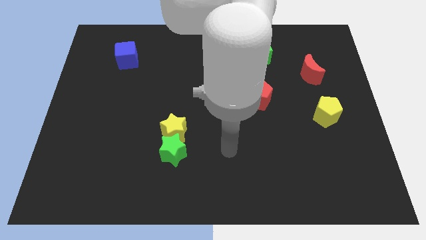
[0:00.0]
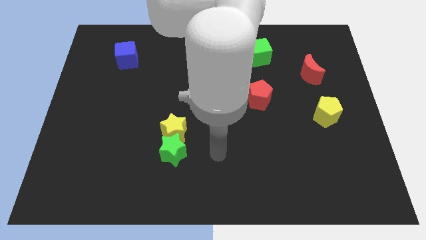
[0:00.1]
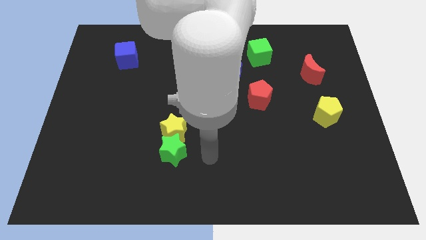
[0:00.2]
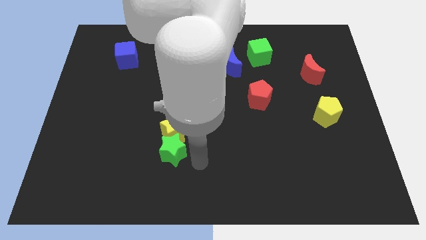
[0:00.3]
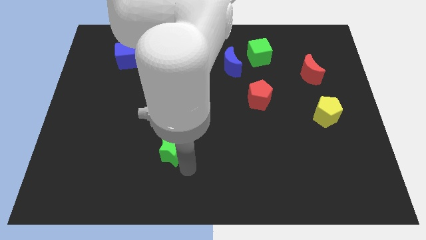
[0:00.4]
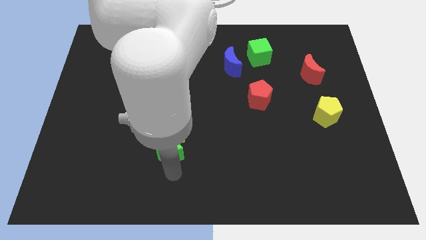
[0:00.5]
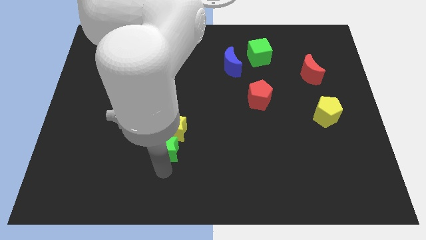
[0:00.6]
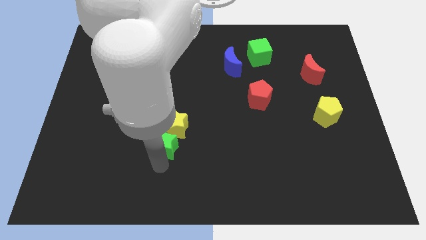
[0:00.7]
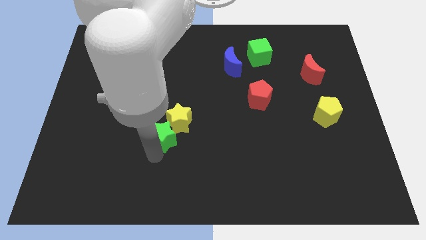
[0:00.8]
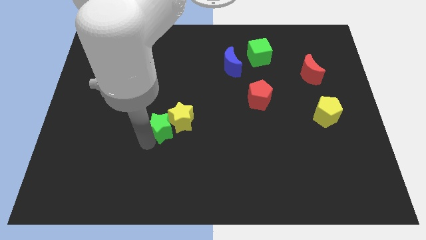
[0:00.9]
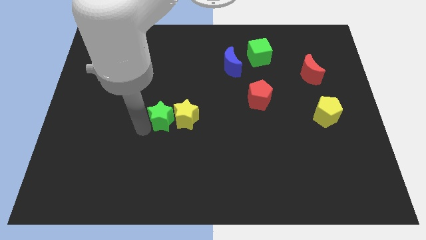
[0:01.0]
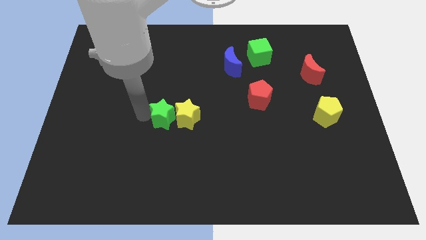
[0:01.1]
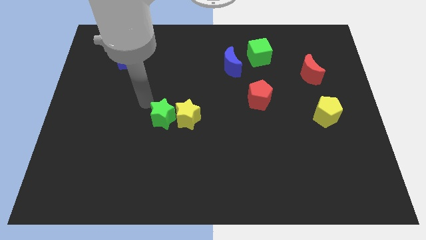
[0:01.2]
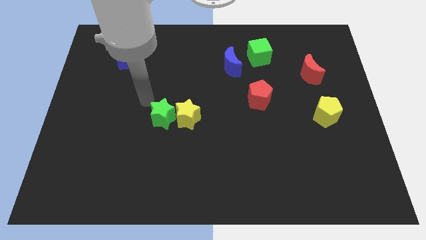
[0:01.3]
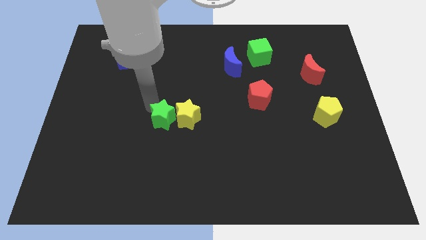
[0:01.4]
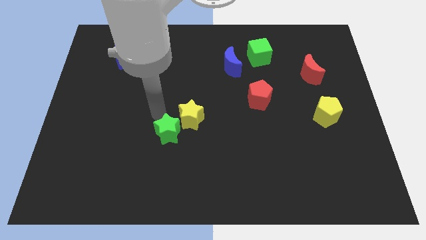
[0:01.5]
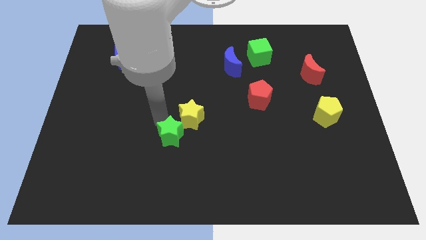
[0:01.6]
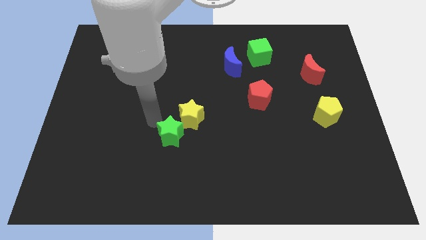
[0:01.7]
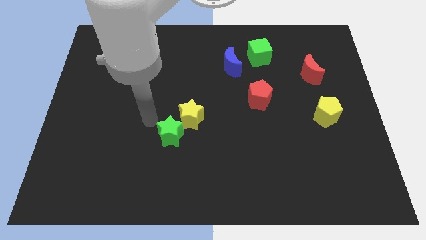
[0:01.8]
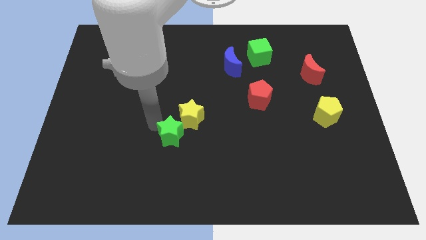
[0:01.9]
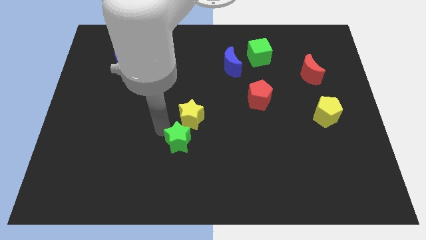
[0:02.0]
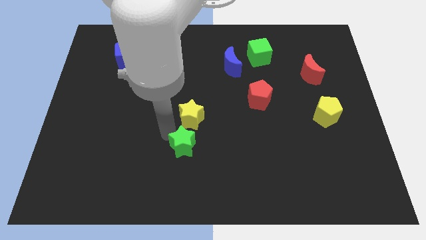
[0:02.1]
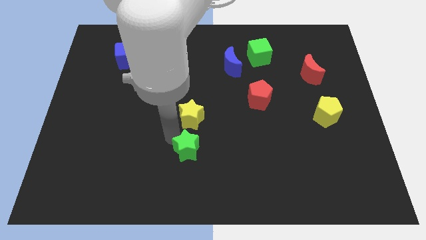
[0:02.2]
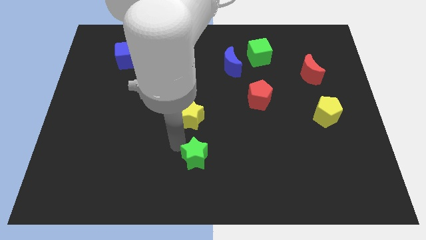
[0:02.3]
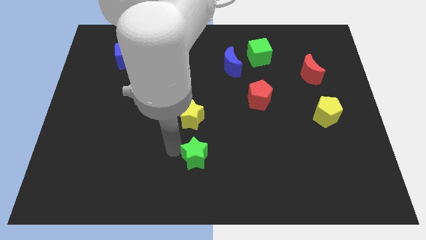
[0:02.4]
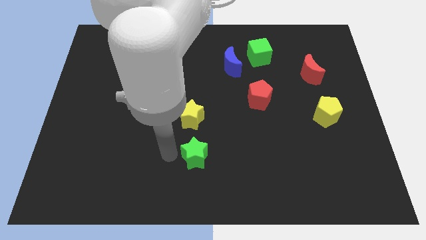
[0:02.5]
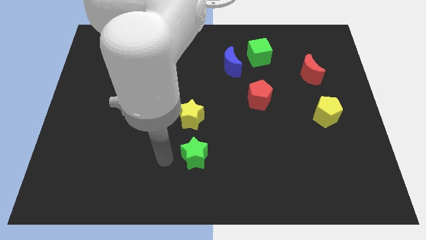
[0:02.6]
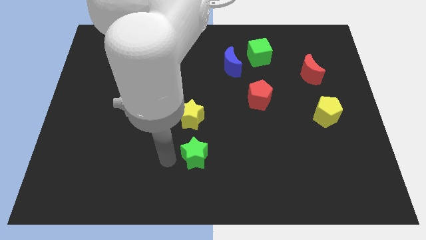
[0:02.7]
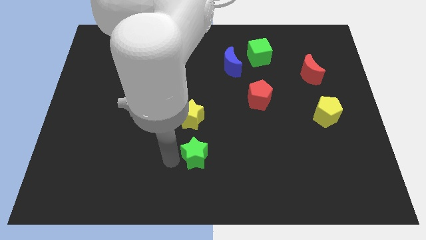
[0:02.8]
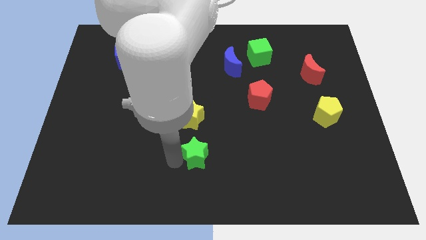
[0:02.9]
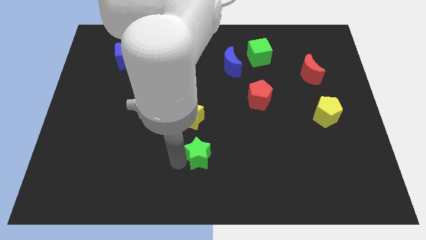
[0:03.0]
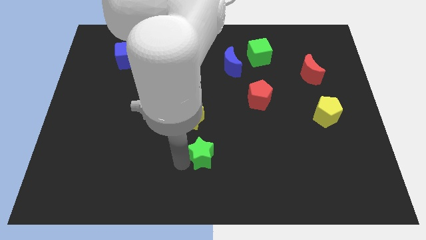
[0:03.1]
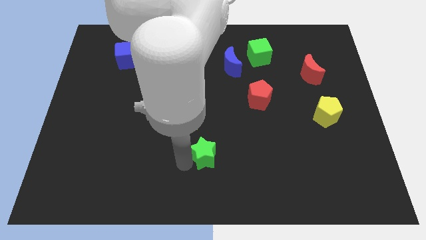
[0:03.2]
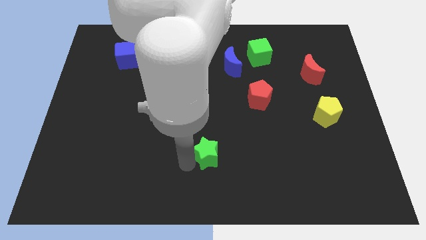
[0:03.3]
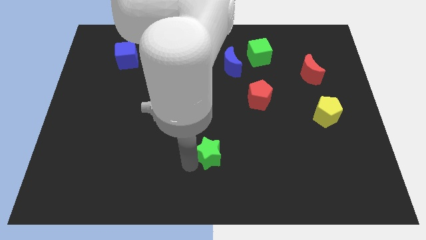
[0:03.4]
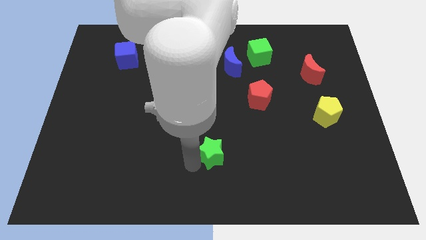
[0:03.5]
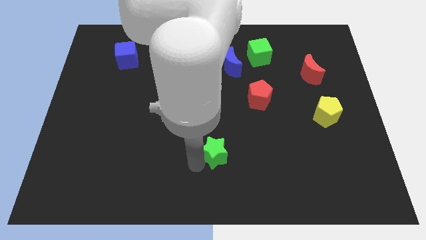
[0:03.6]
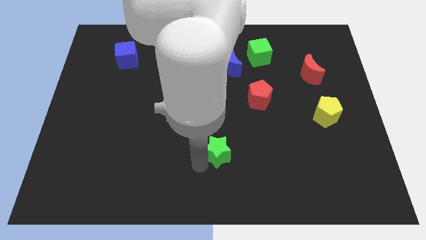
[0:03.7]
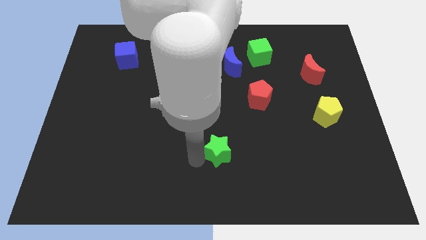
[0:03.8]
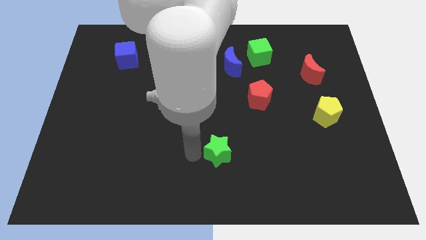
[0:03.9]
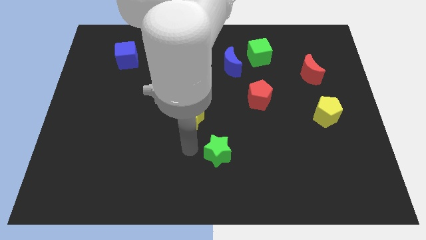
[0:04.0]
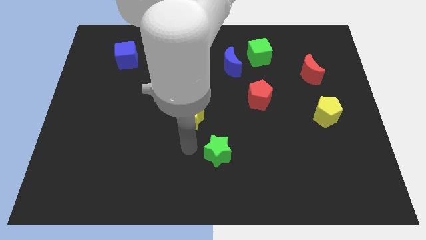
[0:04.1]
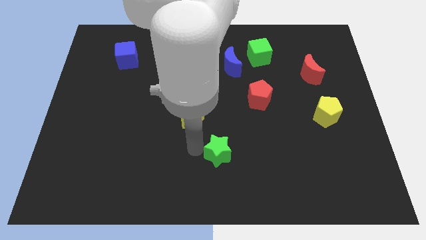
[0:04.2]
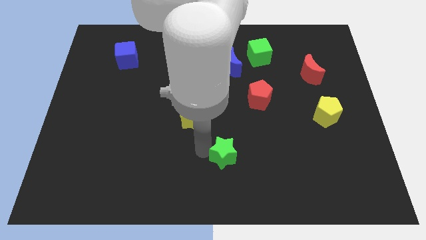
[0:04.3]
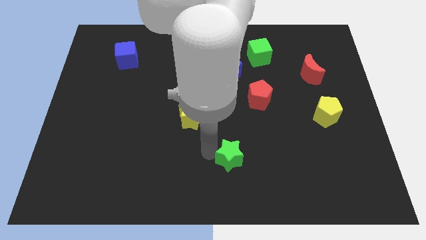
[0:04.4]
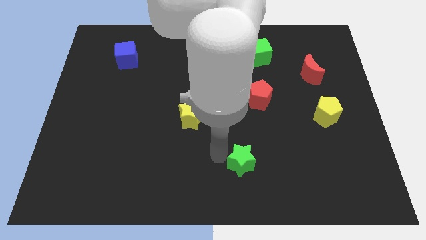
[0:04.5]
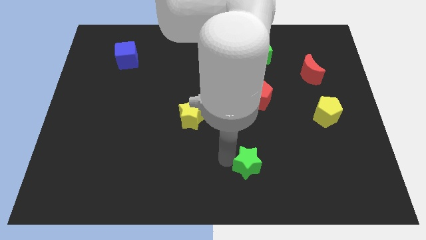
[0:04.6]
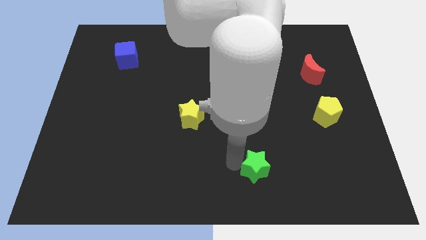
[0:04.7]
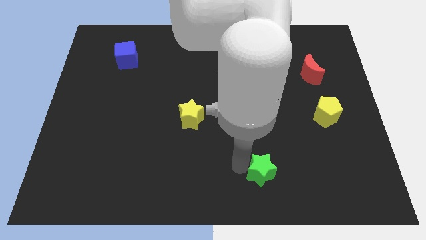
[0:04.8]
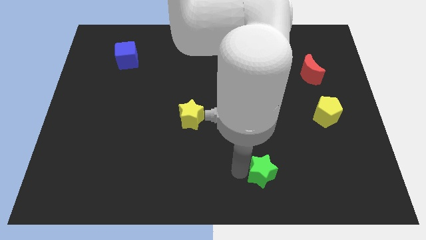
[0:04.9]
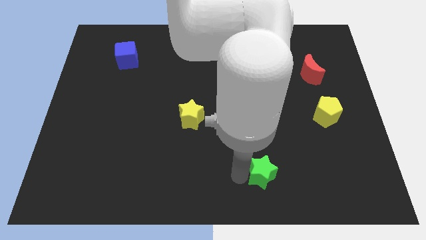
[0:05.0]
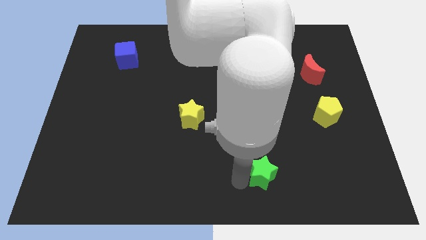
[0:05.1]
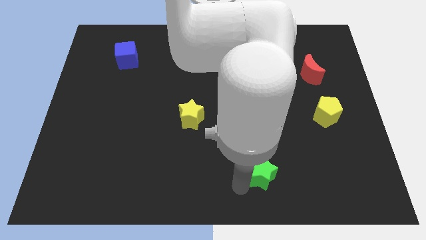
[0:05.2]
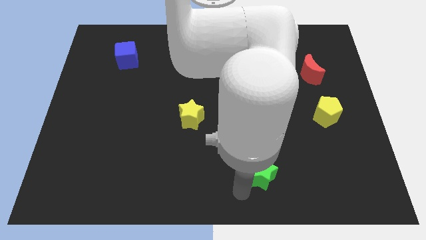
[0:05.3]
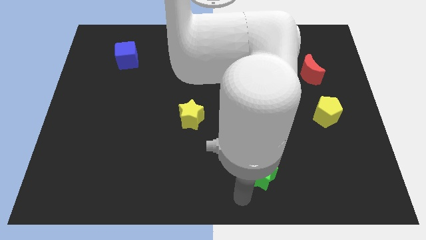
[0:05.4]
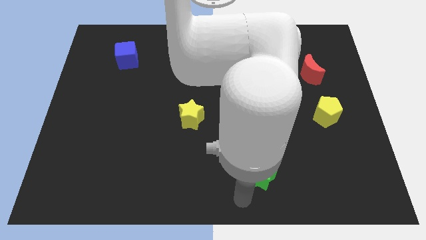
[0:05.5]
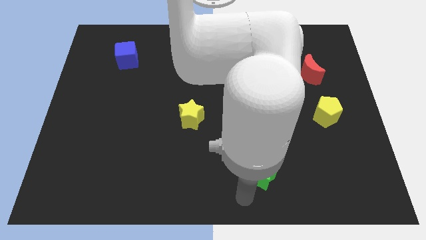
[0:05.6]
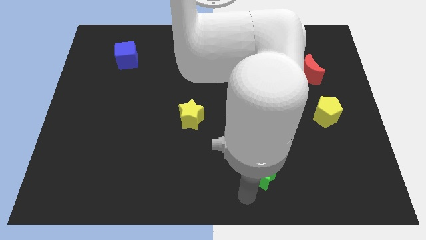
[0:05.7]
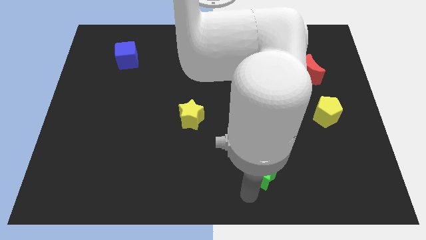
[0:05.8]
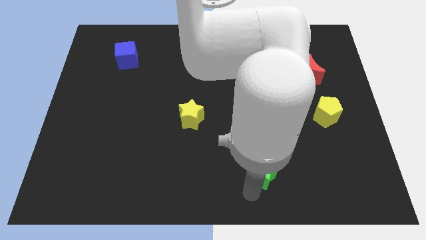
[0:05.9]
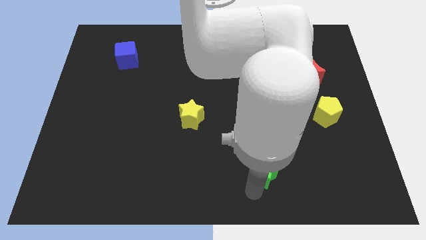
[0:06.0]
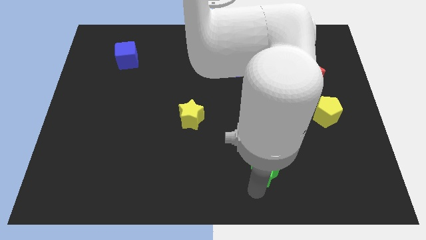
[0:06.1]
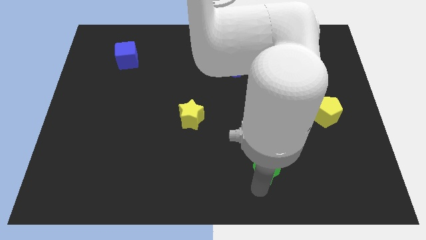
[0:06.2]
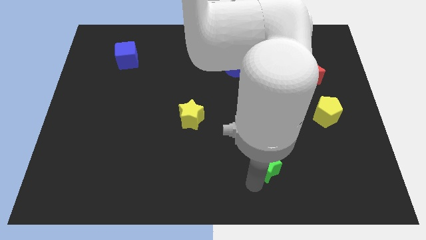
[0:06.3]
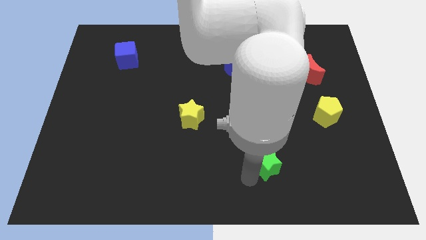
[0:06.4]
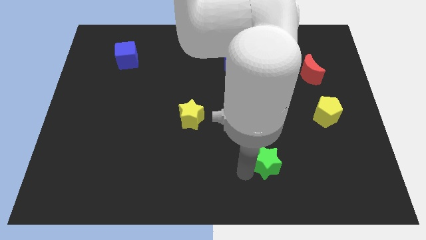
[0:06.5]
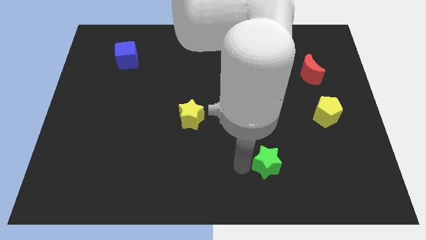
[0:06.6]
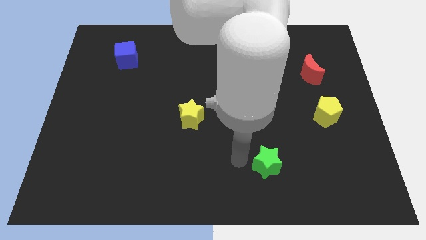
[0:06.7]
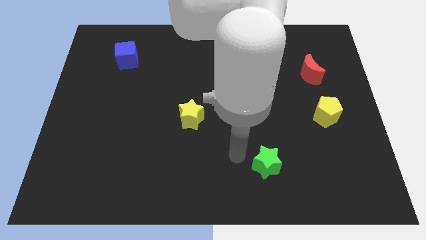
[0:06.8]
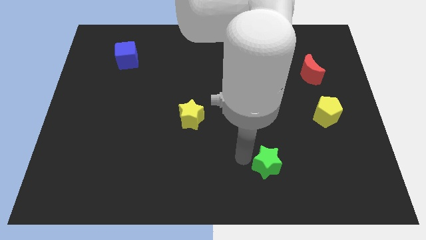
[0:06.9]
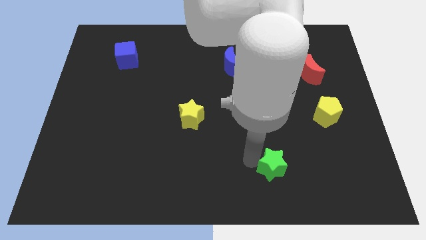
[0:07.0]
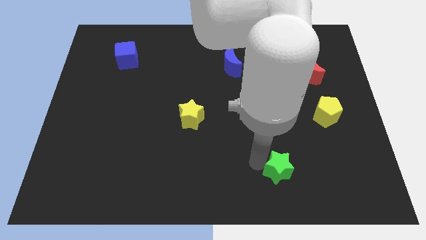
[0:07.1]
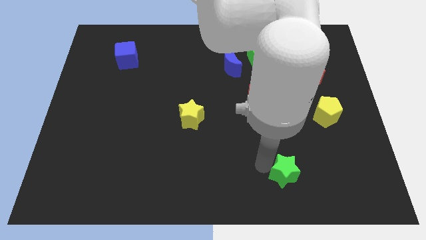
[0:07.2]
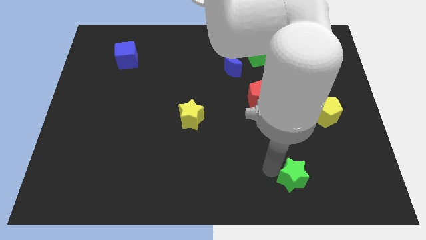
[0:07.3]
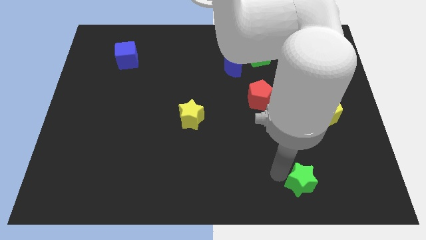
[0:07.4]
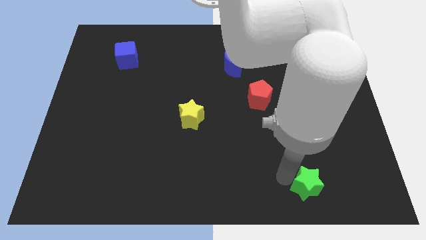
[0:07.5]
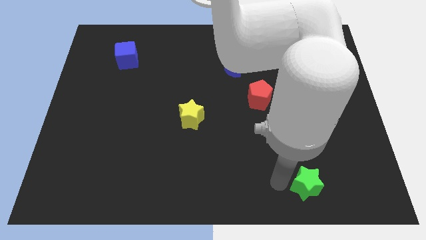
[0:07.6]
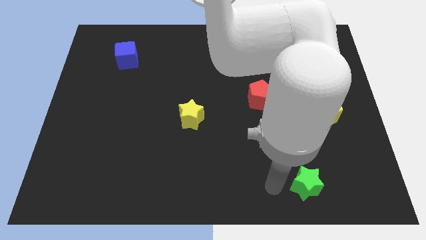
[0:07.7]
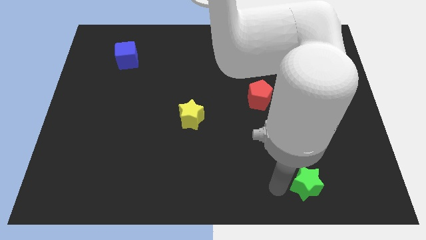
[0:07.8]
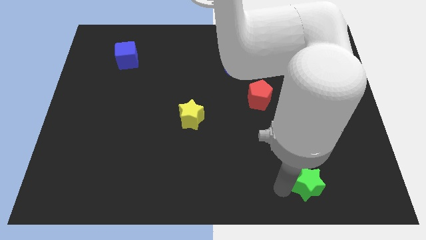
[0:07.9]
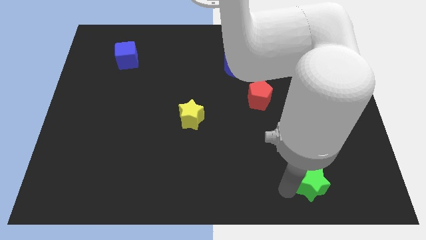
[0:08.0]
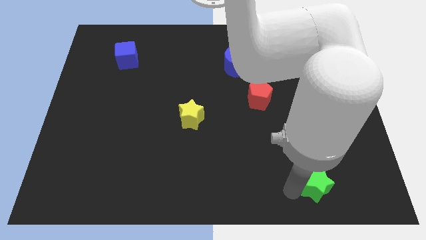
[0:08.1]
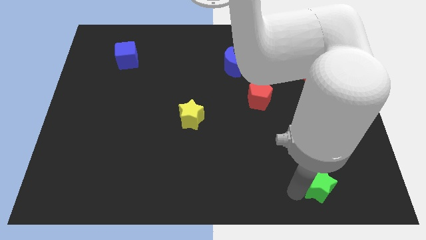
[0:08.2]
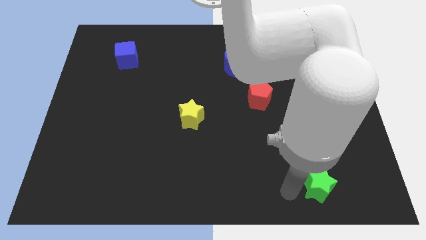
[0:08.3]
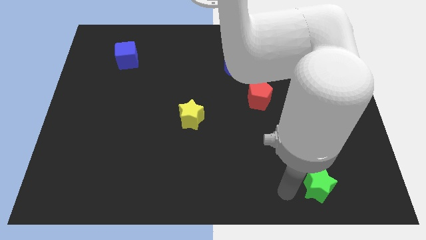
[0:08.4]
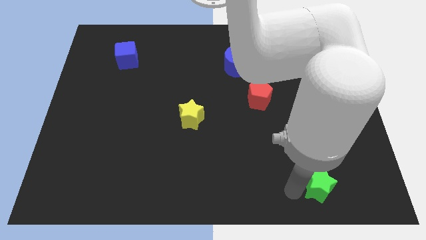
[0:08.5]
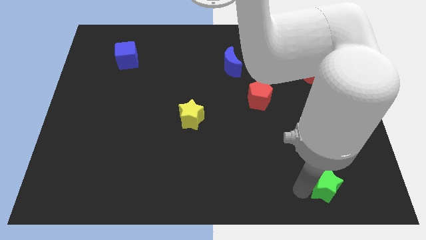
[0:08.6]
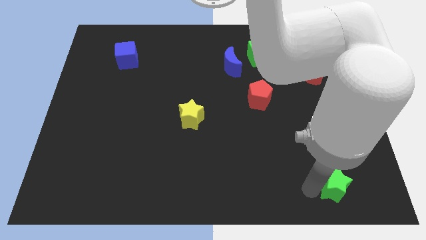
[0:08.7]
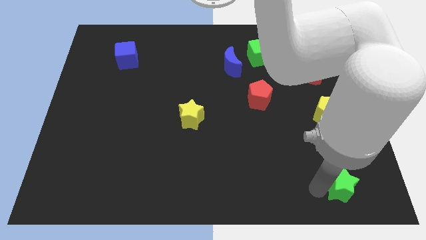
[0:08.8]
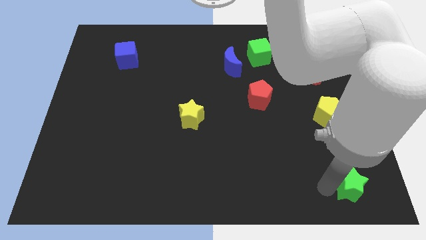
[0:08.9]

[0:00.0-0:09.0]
push the green star to the bottom right
